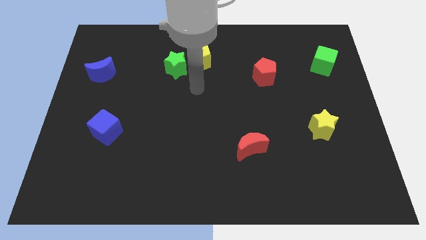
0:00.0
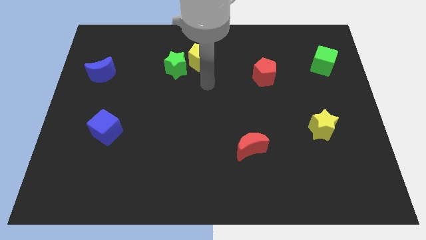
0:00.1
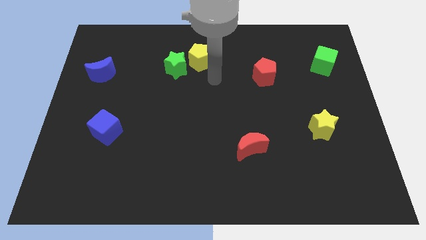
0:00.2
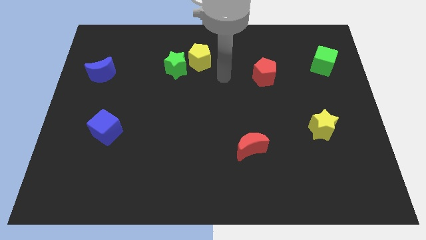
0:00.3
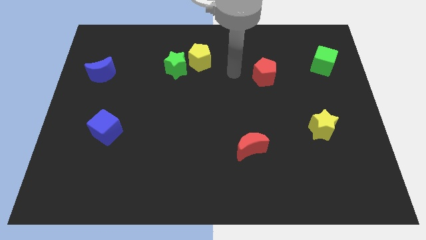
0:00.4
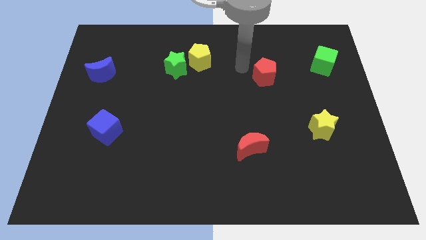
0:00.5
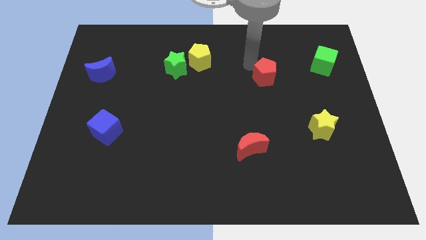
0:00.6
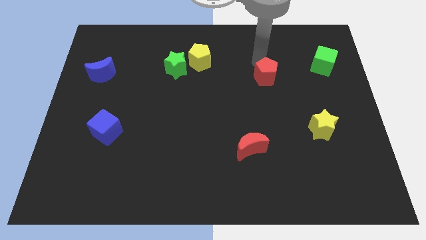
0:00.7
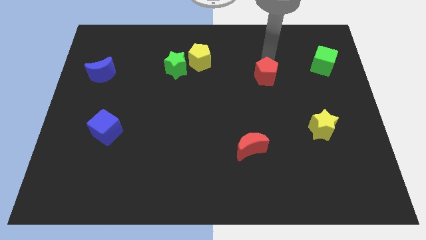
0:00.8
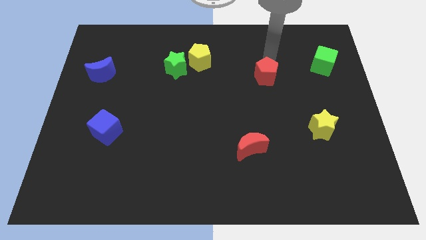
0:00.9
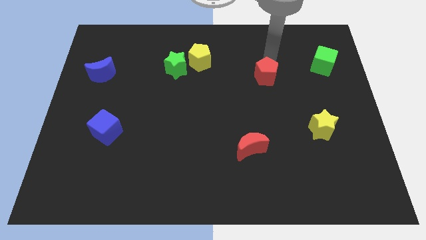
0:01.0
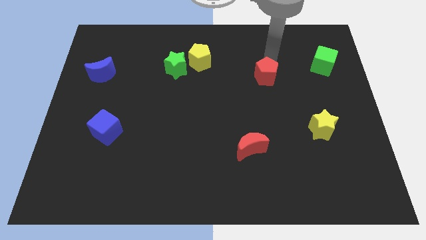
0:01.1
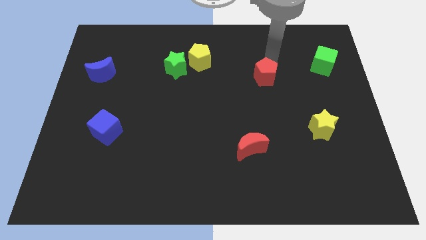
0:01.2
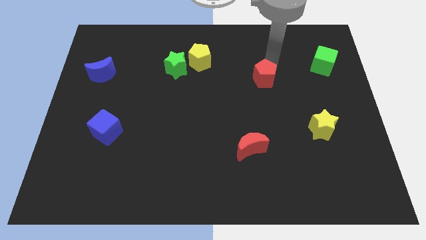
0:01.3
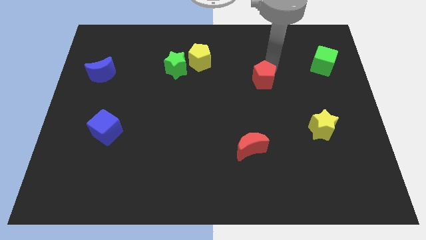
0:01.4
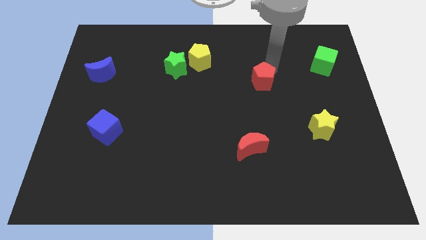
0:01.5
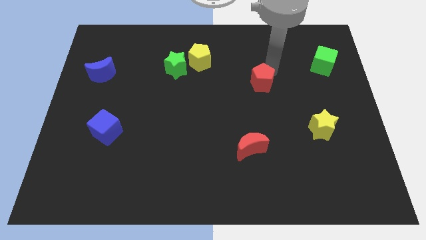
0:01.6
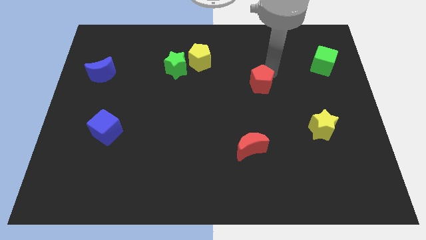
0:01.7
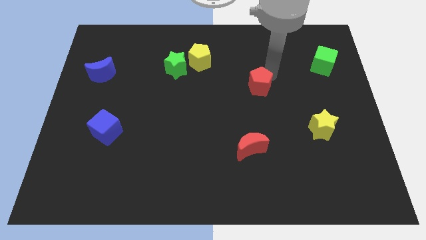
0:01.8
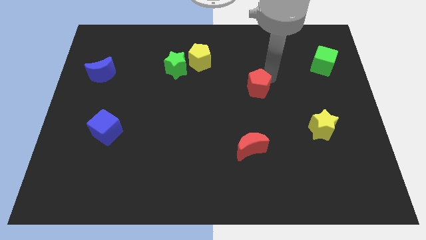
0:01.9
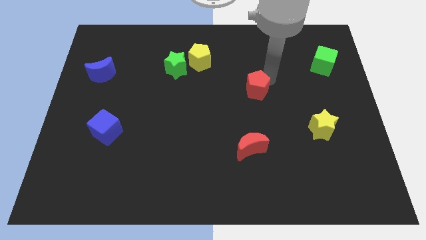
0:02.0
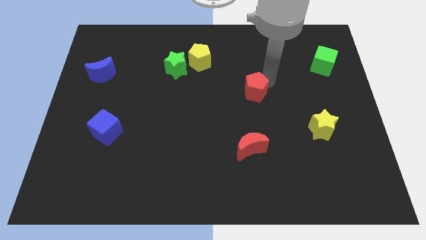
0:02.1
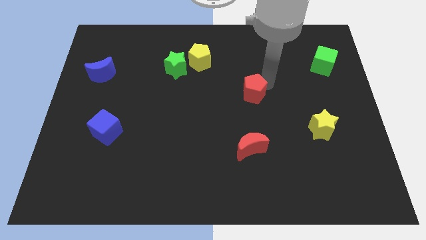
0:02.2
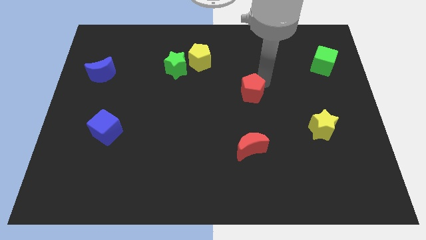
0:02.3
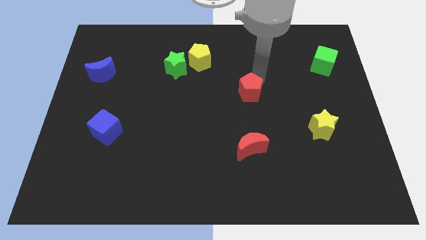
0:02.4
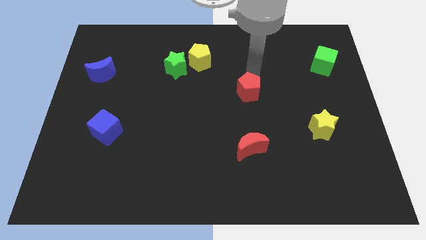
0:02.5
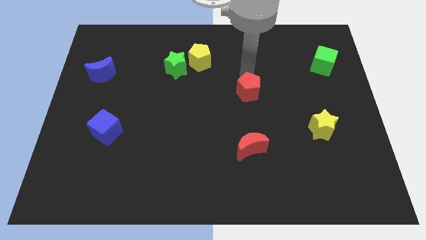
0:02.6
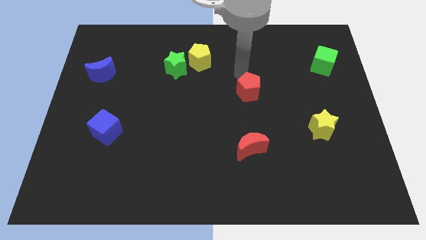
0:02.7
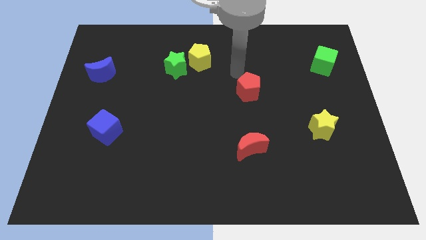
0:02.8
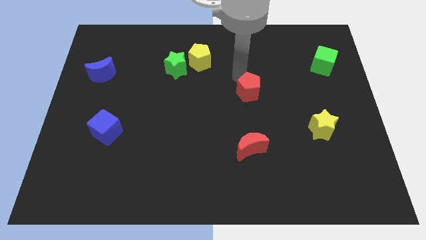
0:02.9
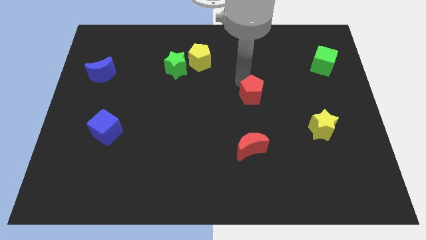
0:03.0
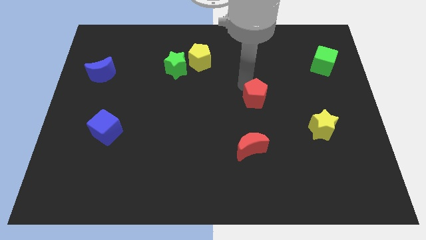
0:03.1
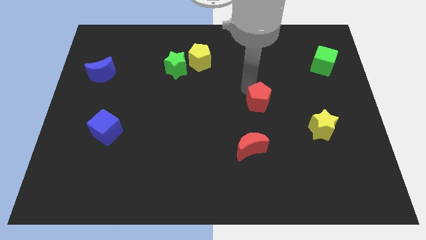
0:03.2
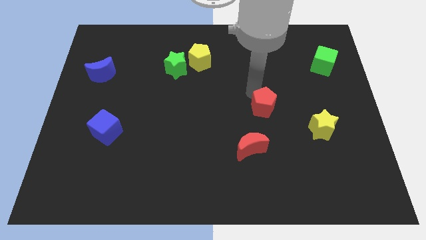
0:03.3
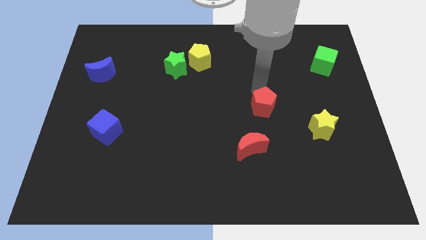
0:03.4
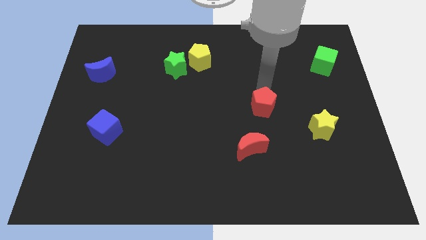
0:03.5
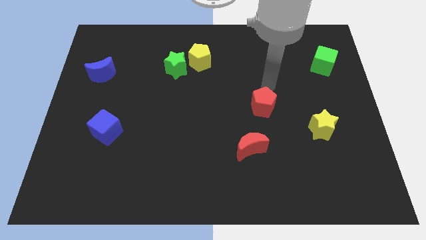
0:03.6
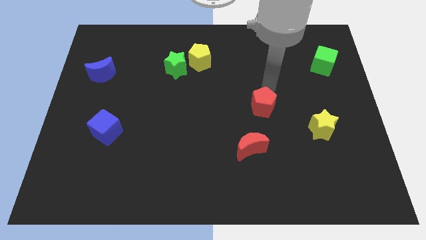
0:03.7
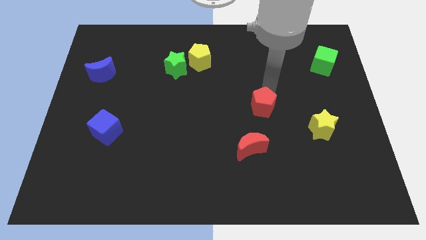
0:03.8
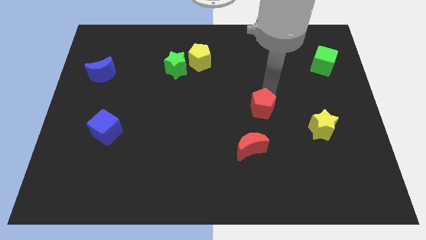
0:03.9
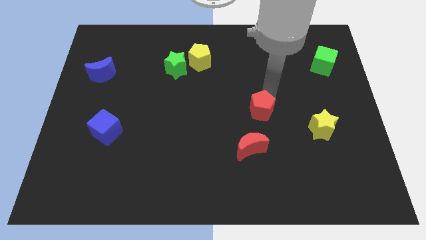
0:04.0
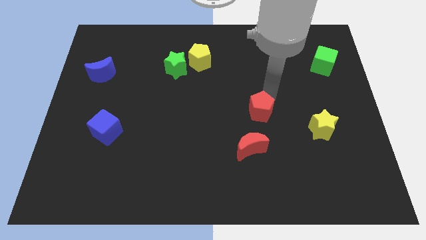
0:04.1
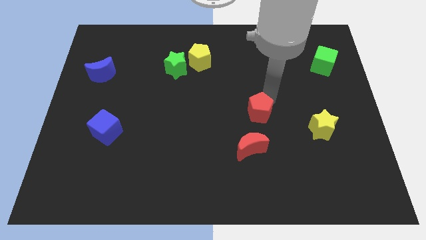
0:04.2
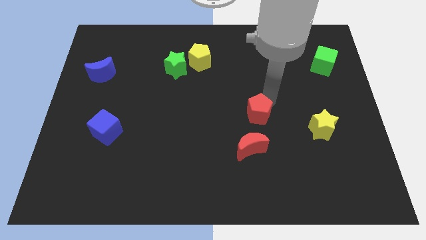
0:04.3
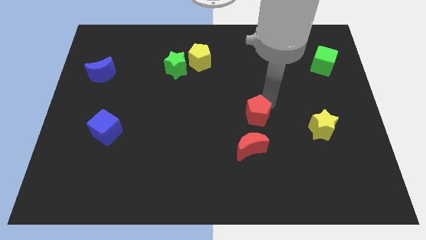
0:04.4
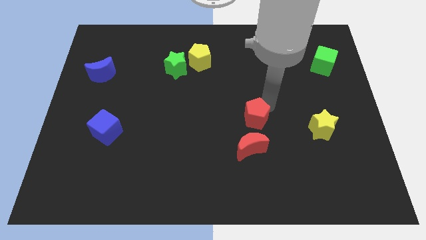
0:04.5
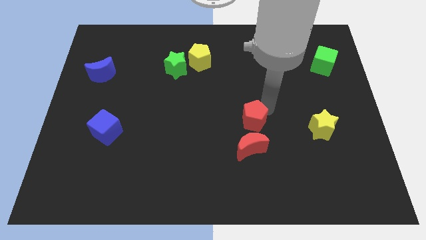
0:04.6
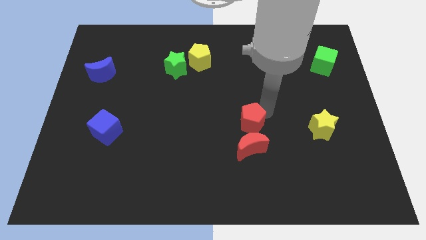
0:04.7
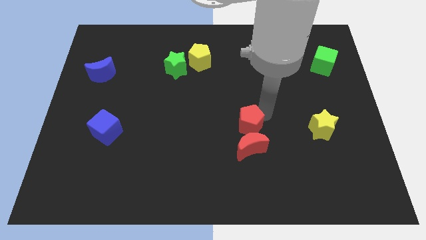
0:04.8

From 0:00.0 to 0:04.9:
push the red pentagon towards the red moon

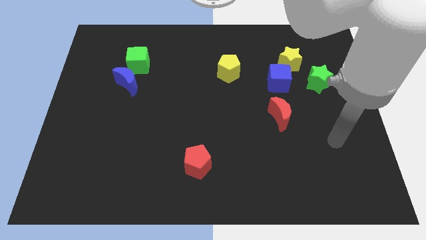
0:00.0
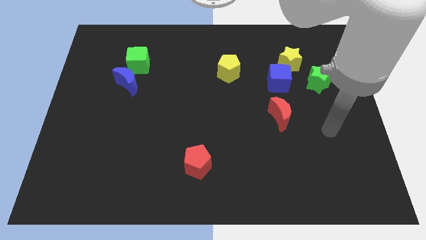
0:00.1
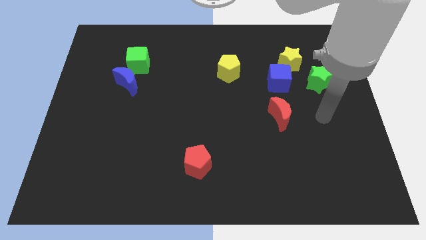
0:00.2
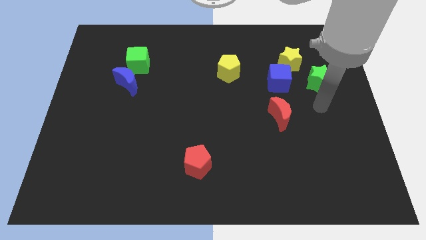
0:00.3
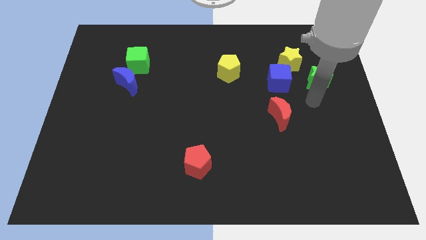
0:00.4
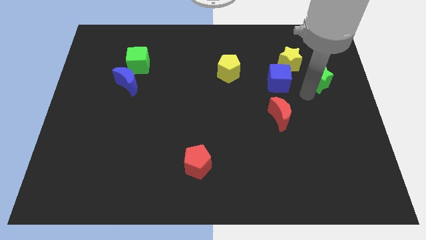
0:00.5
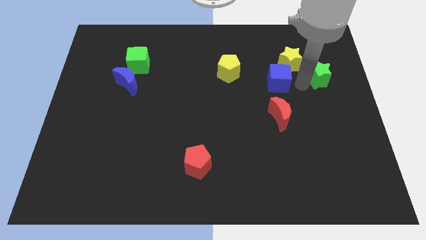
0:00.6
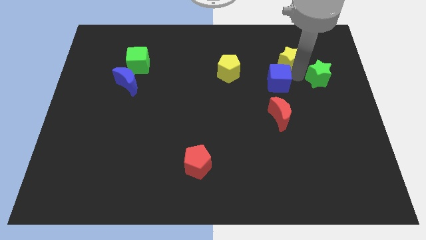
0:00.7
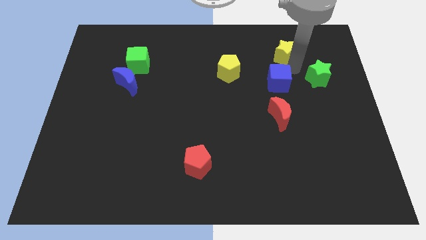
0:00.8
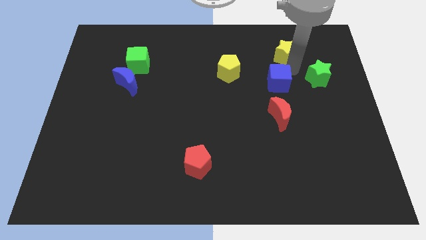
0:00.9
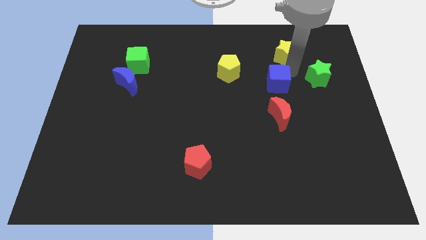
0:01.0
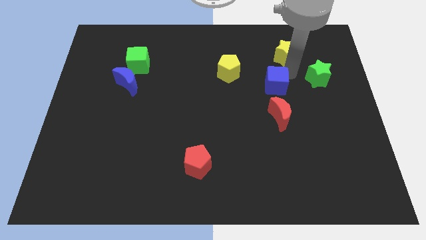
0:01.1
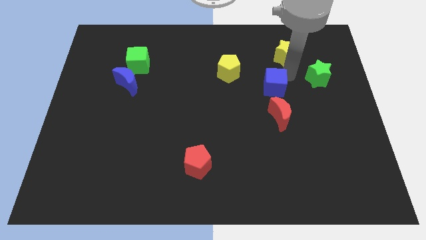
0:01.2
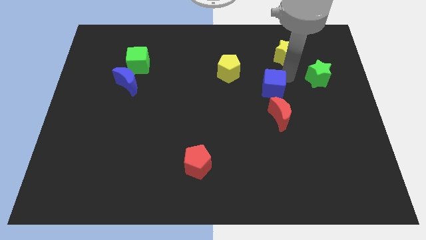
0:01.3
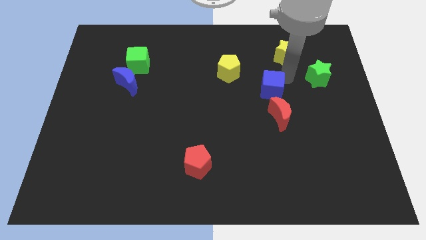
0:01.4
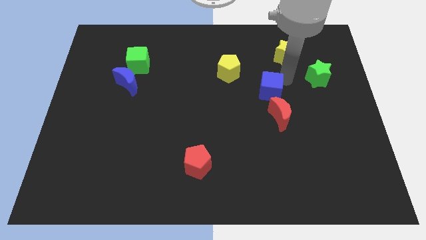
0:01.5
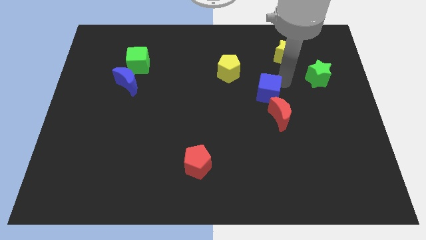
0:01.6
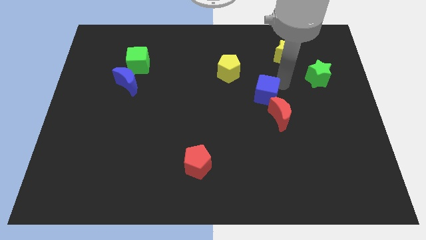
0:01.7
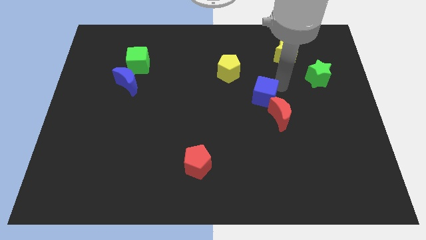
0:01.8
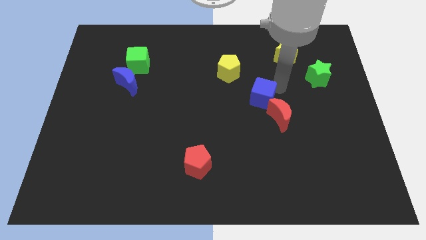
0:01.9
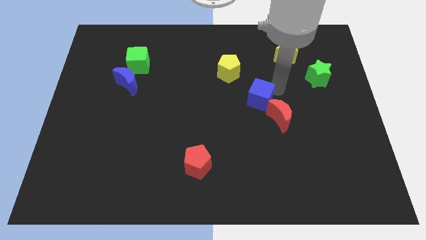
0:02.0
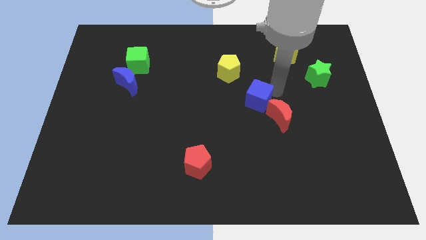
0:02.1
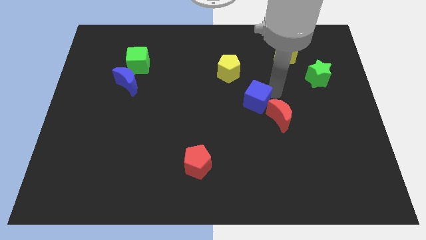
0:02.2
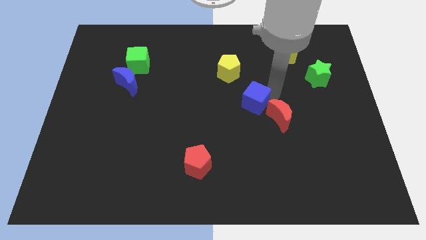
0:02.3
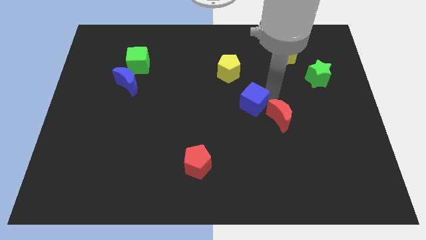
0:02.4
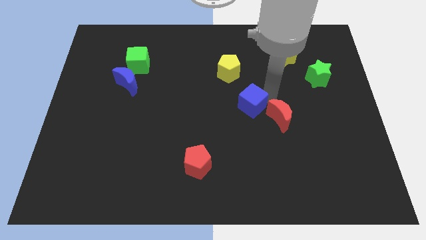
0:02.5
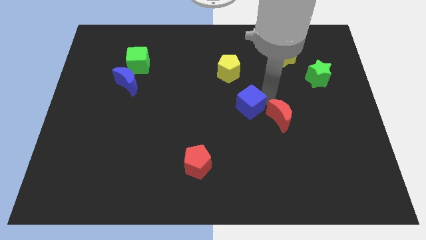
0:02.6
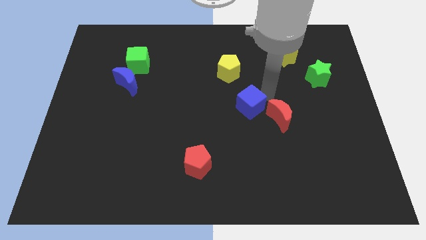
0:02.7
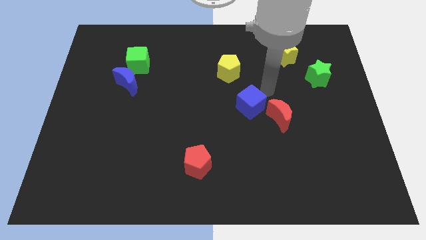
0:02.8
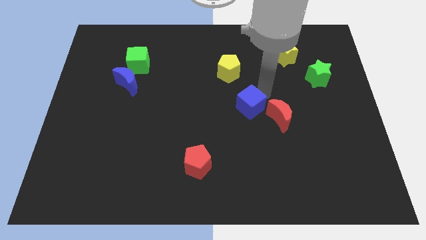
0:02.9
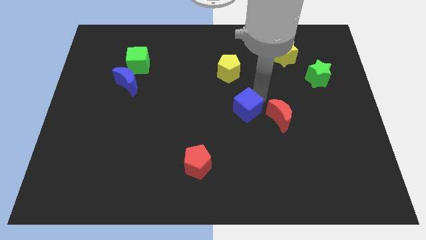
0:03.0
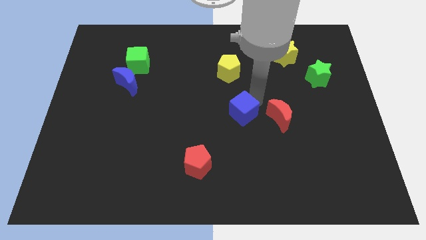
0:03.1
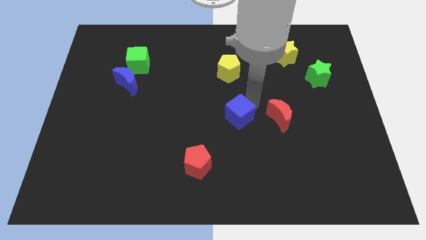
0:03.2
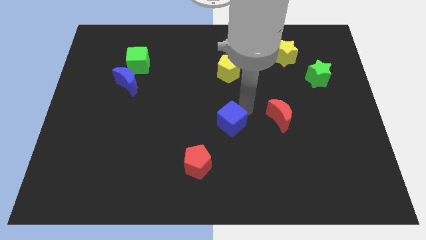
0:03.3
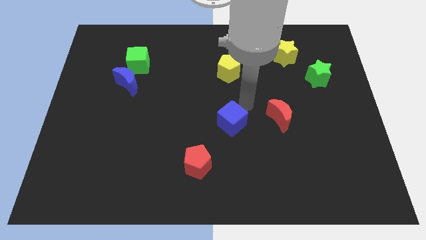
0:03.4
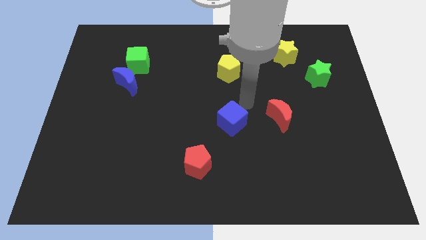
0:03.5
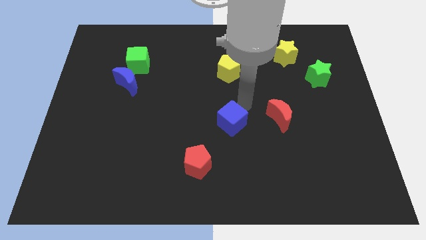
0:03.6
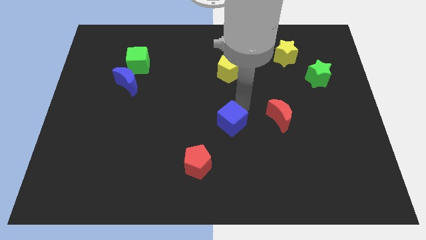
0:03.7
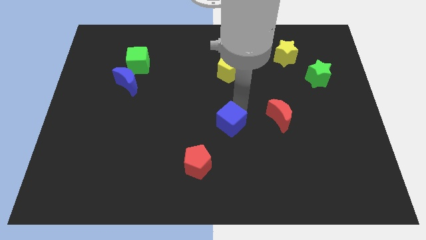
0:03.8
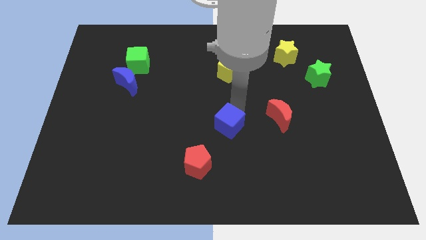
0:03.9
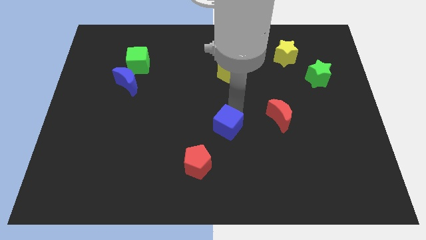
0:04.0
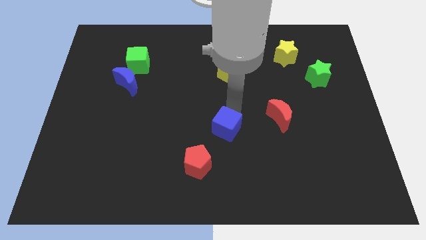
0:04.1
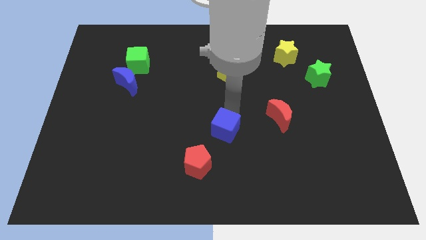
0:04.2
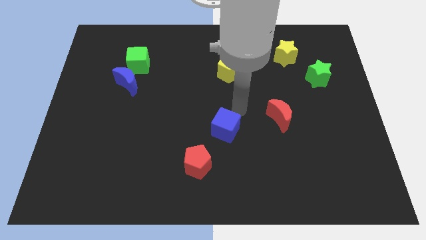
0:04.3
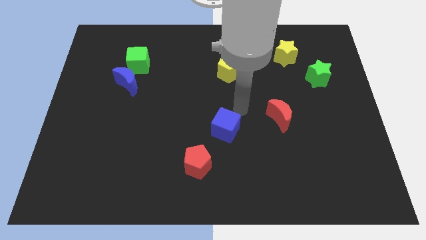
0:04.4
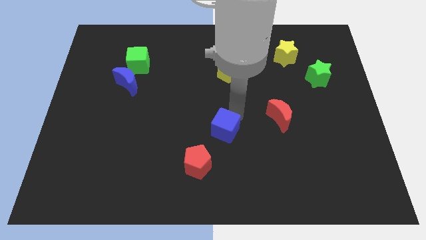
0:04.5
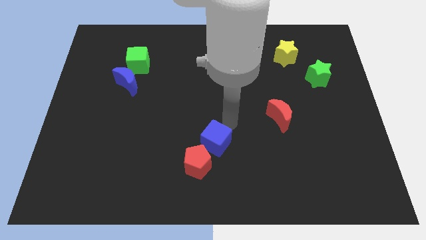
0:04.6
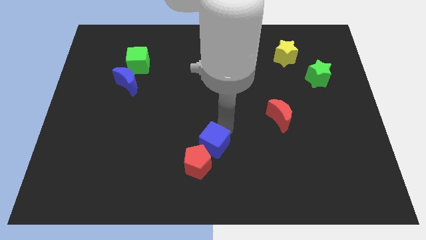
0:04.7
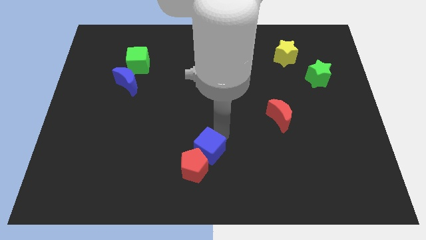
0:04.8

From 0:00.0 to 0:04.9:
move the blue cube towards the red pentagon
